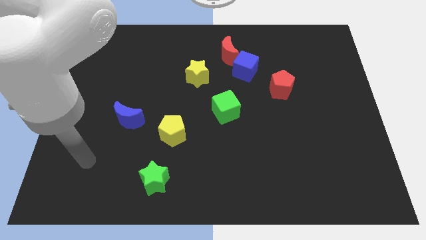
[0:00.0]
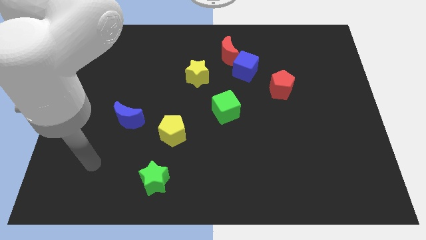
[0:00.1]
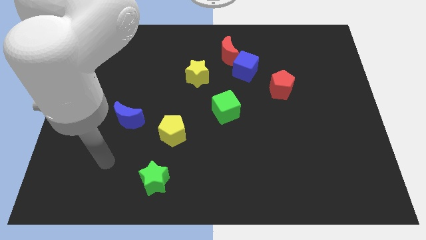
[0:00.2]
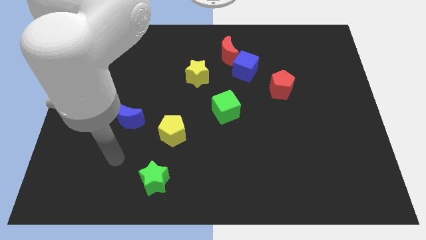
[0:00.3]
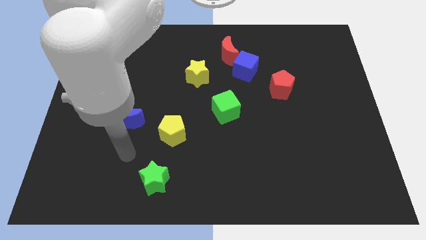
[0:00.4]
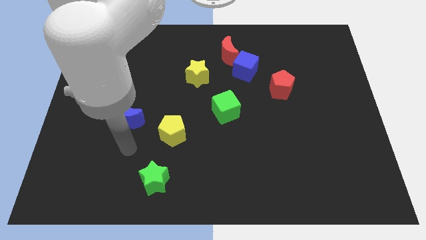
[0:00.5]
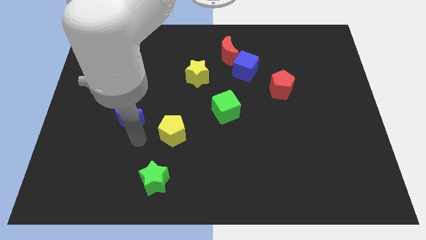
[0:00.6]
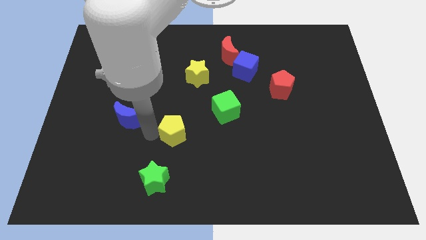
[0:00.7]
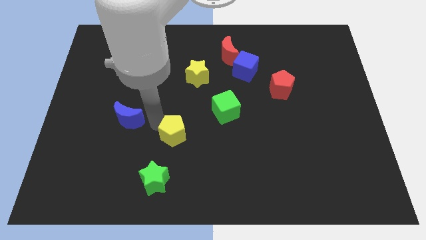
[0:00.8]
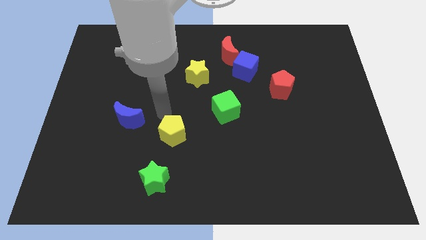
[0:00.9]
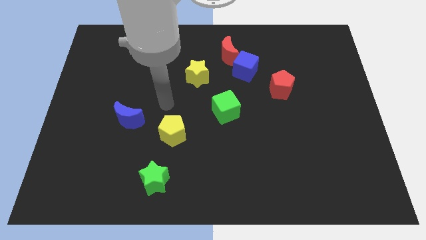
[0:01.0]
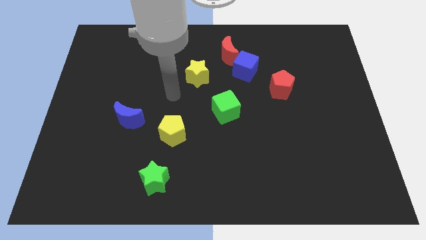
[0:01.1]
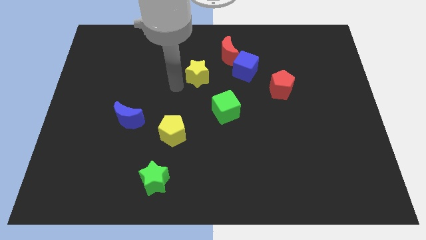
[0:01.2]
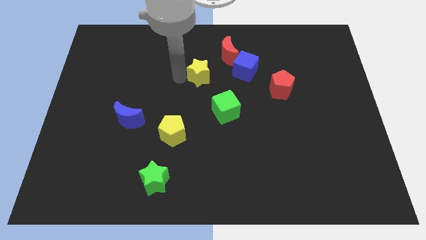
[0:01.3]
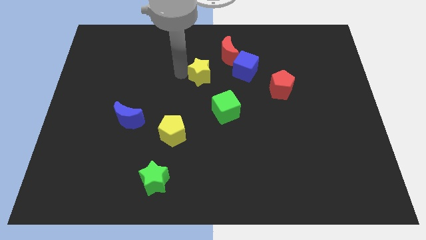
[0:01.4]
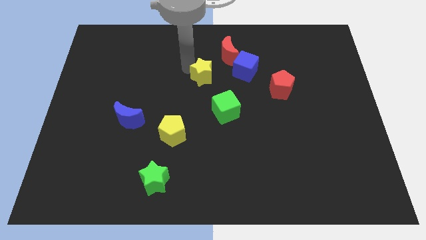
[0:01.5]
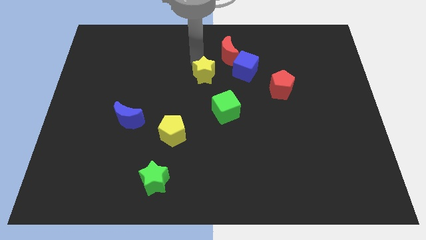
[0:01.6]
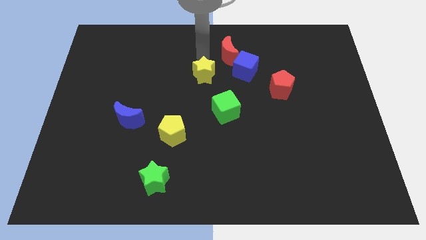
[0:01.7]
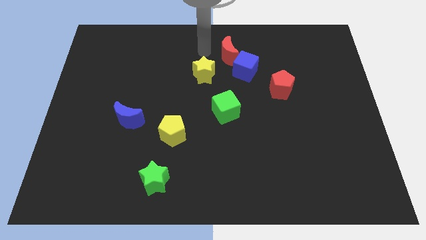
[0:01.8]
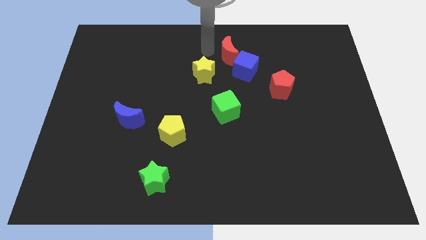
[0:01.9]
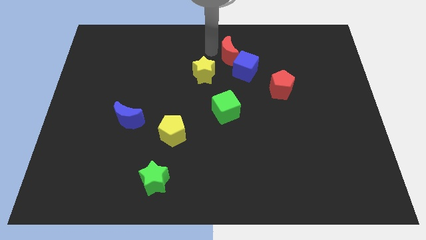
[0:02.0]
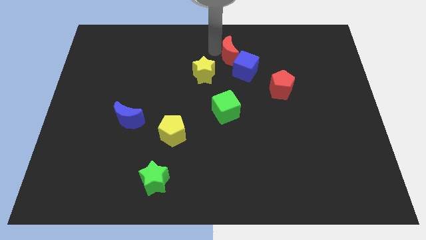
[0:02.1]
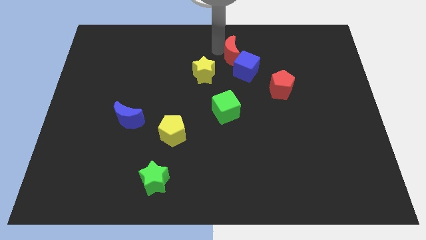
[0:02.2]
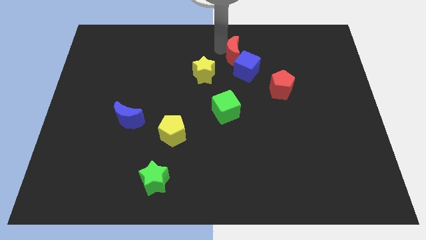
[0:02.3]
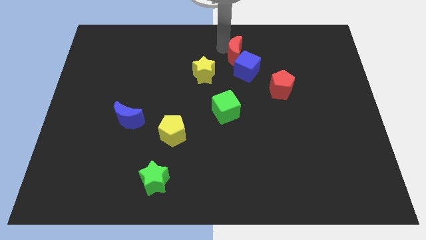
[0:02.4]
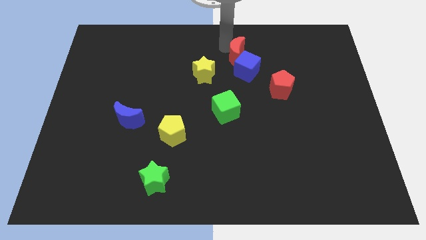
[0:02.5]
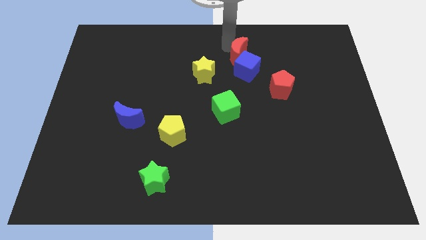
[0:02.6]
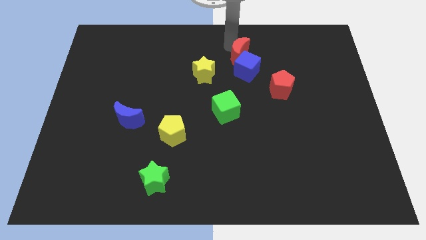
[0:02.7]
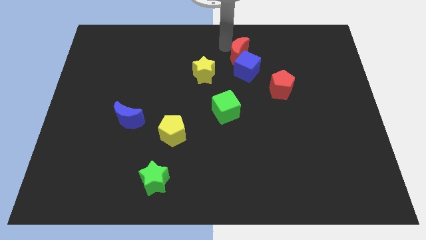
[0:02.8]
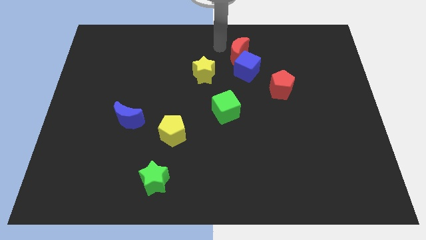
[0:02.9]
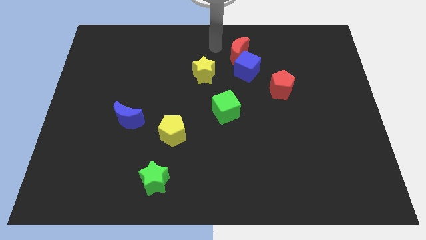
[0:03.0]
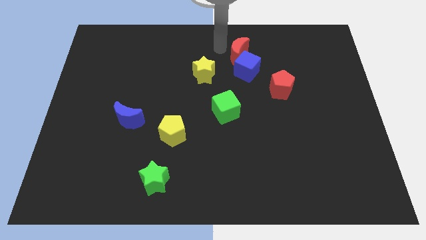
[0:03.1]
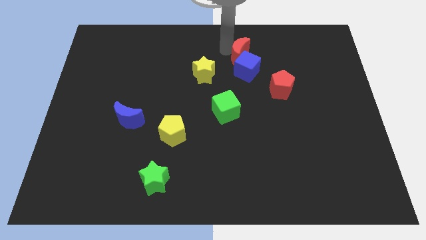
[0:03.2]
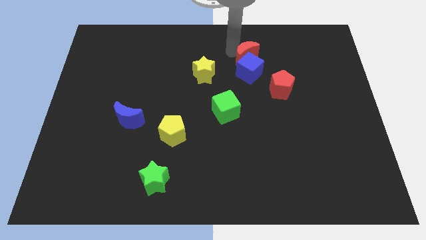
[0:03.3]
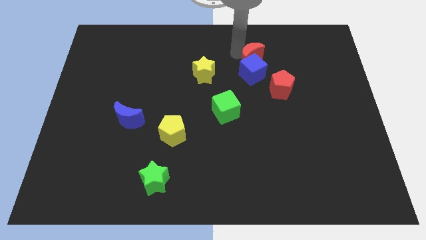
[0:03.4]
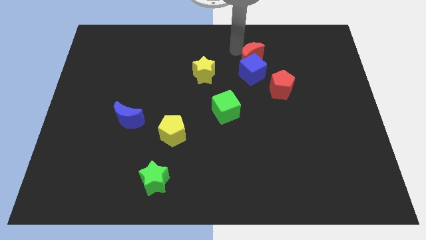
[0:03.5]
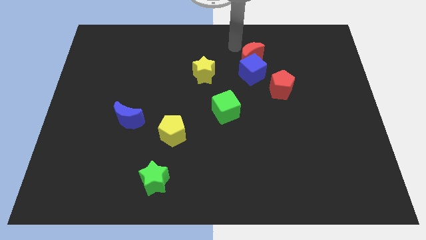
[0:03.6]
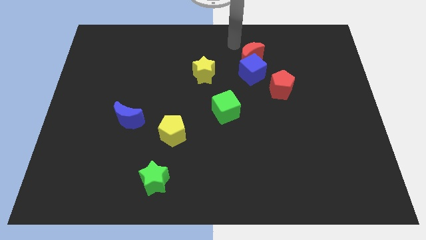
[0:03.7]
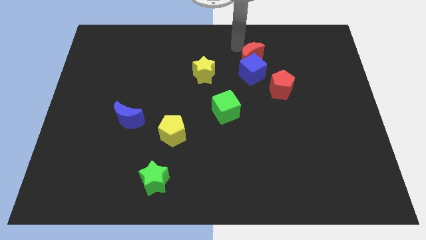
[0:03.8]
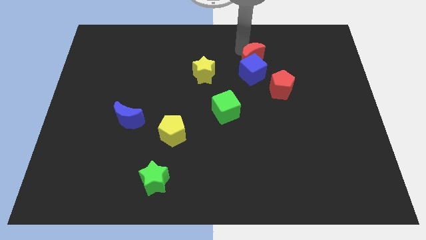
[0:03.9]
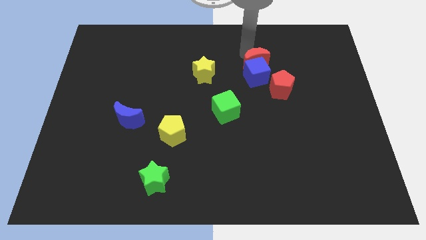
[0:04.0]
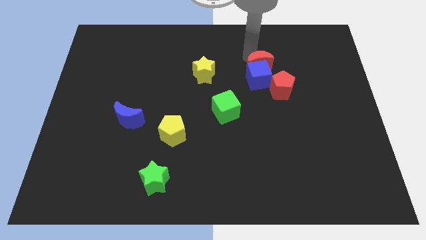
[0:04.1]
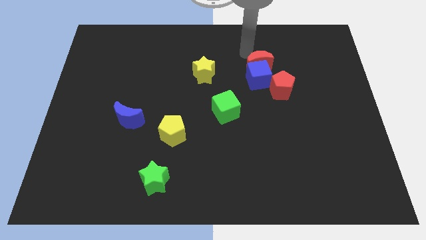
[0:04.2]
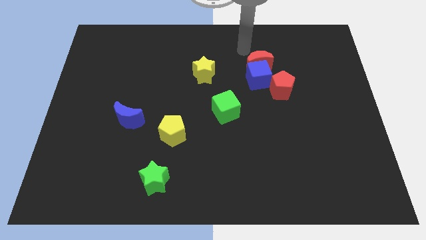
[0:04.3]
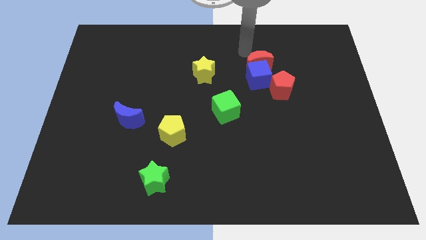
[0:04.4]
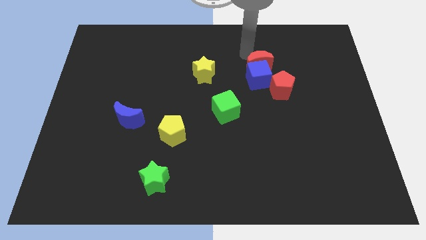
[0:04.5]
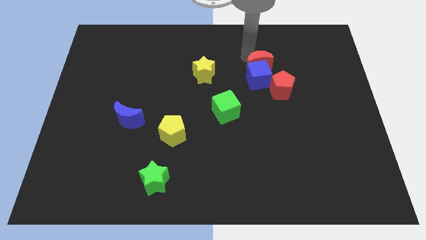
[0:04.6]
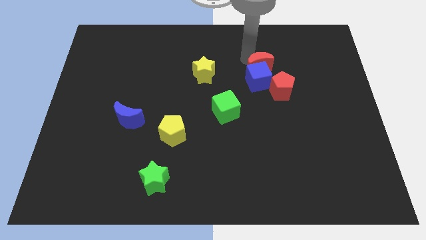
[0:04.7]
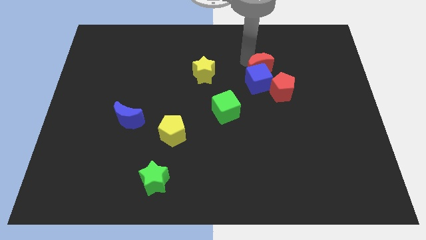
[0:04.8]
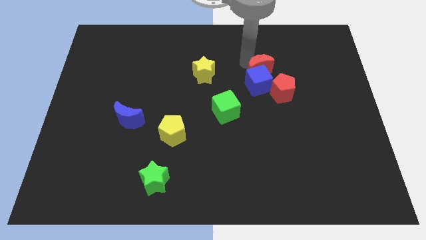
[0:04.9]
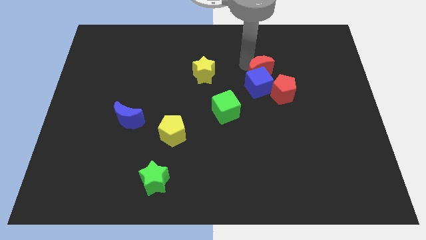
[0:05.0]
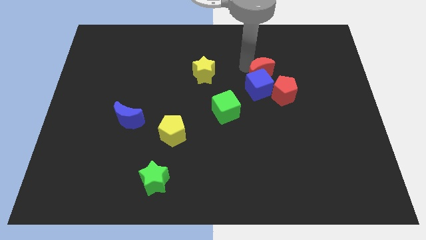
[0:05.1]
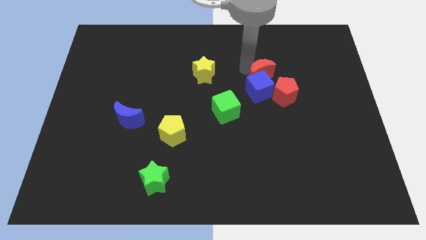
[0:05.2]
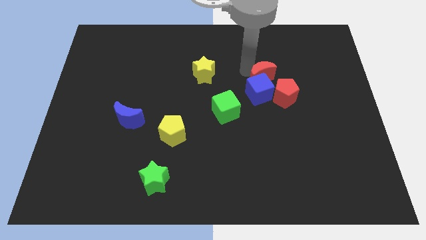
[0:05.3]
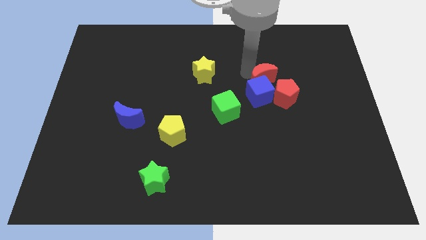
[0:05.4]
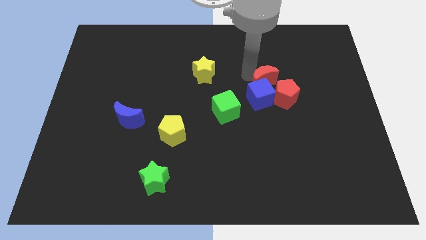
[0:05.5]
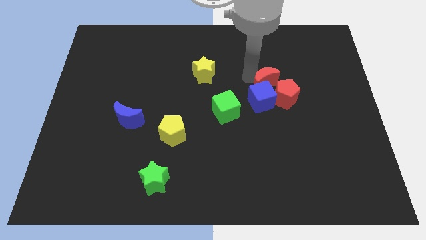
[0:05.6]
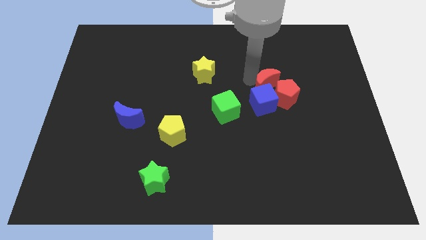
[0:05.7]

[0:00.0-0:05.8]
move the red moon towards the red pentagon

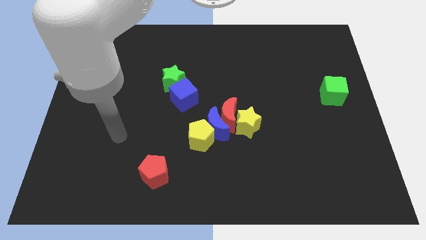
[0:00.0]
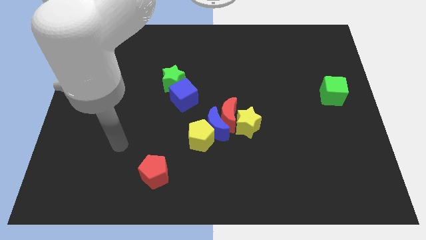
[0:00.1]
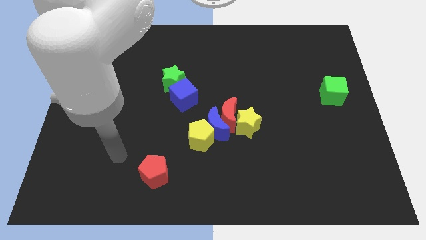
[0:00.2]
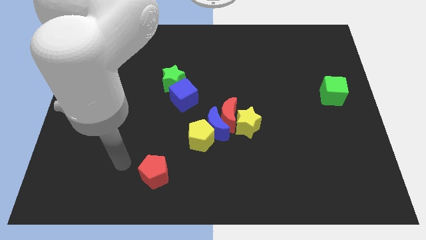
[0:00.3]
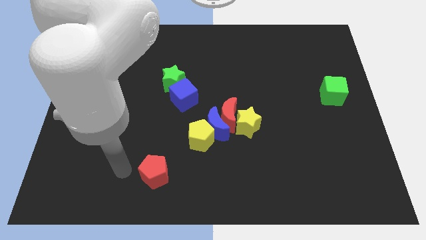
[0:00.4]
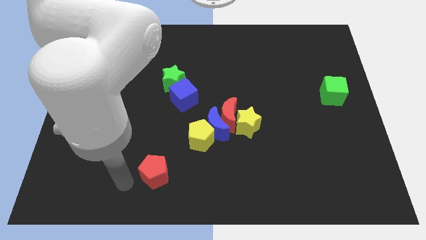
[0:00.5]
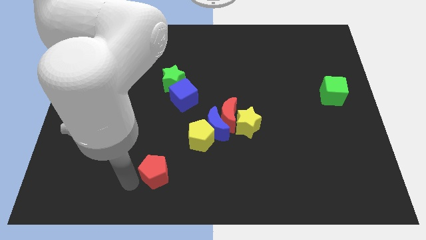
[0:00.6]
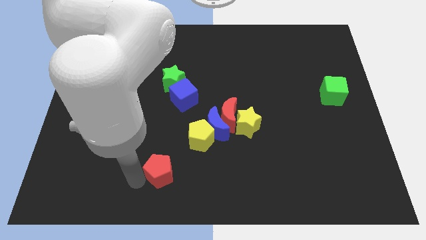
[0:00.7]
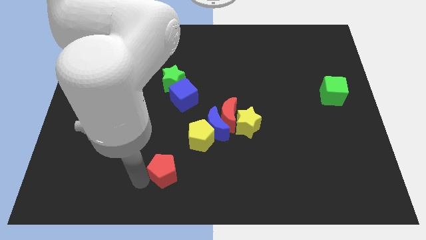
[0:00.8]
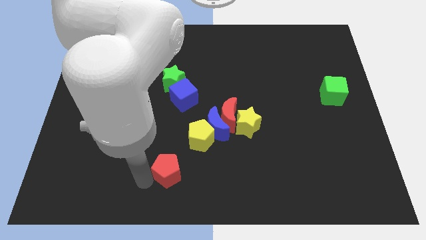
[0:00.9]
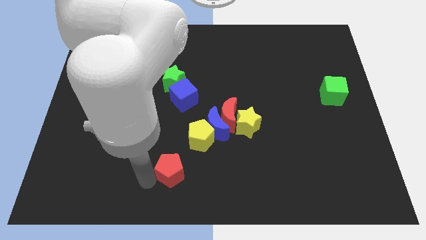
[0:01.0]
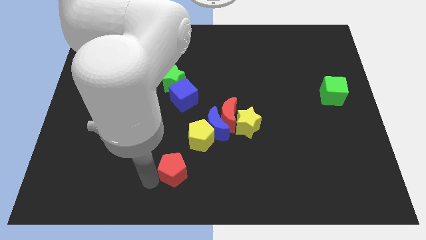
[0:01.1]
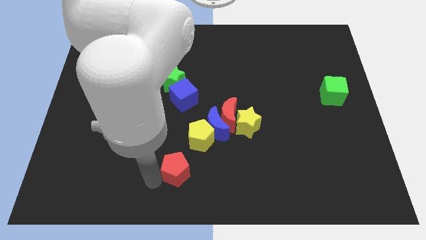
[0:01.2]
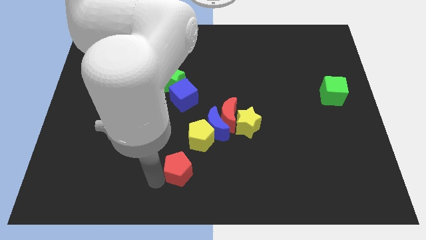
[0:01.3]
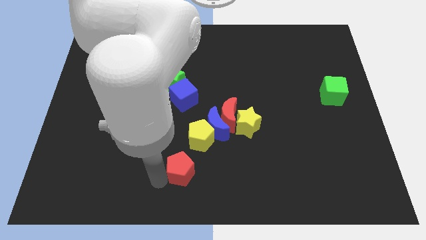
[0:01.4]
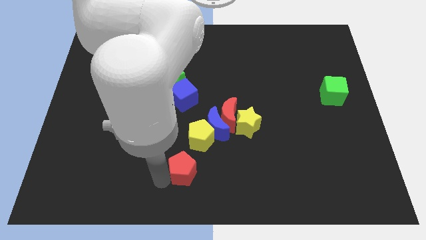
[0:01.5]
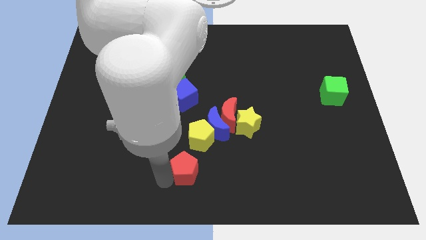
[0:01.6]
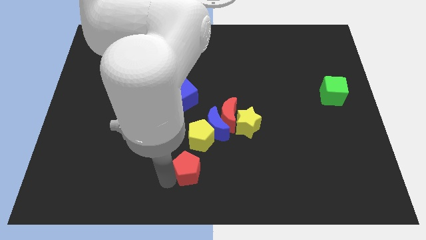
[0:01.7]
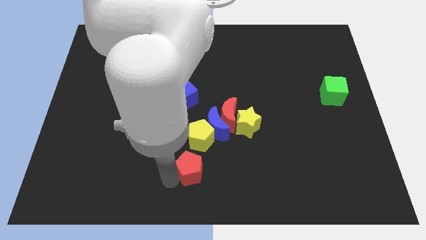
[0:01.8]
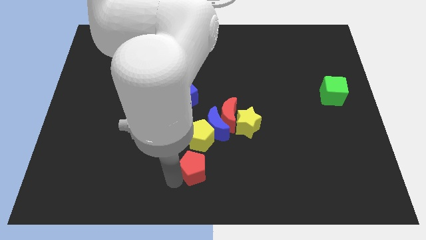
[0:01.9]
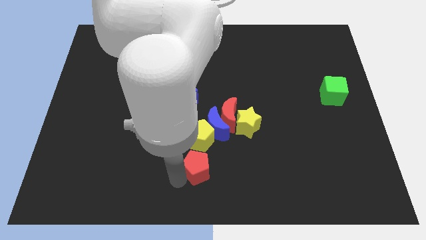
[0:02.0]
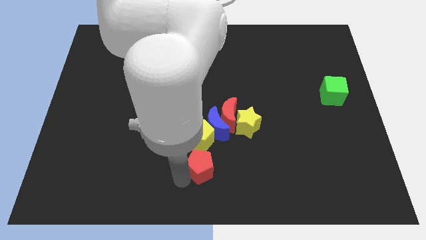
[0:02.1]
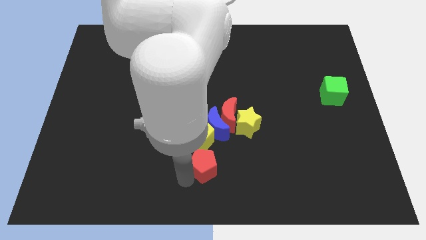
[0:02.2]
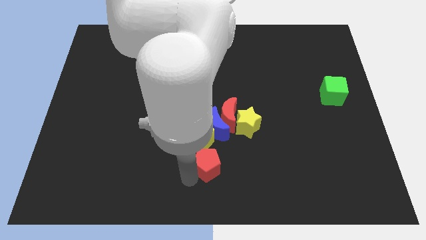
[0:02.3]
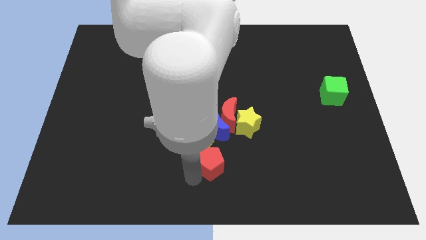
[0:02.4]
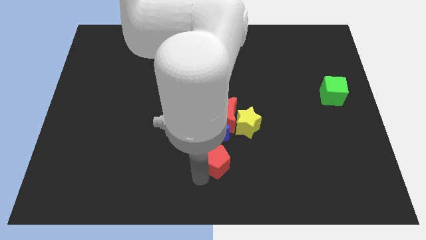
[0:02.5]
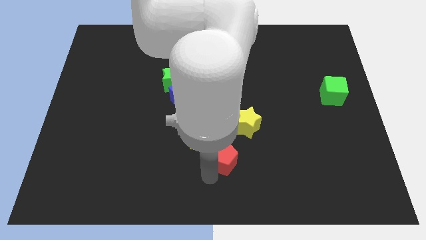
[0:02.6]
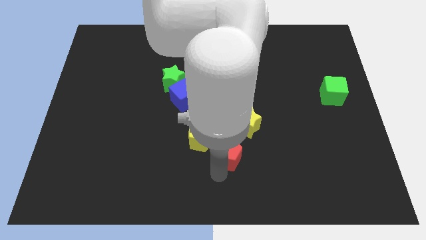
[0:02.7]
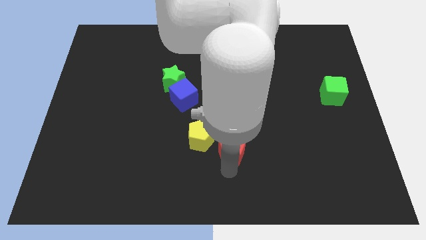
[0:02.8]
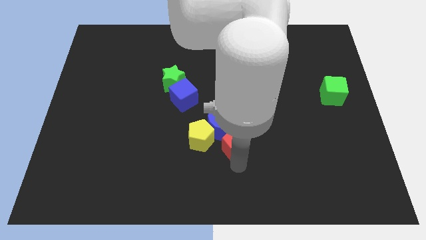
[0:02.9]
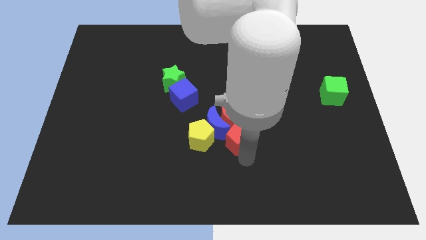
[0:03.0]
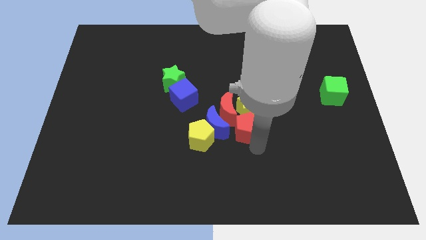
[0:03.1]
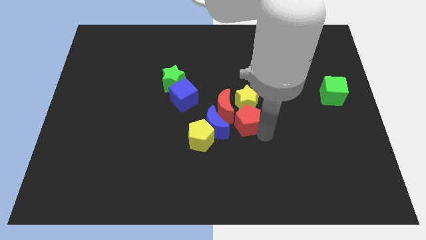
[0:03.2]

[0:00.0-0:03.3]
slide the red pentagon towards the red moon
